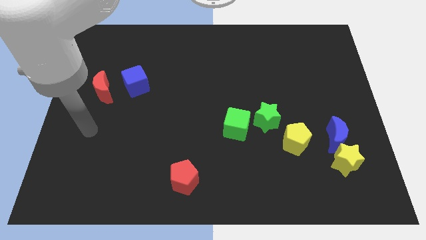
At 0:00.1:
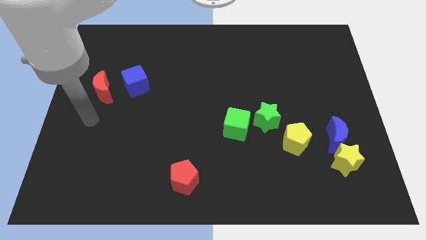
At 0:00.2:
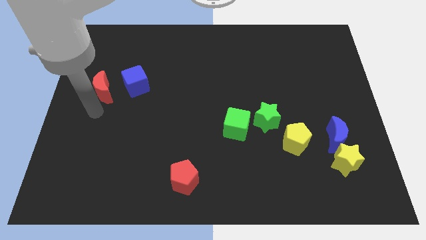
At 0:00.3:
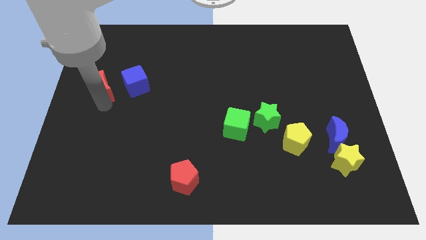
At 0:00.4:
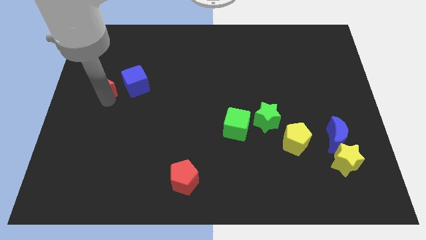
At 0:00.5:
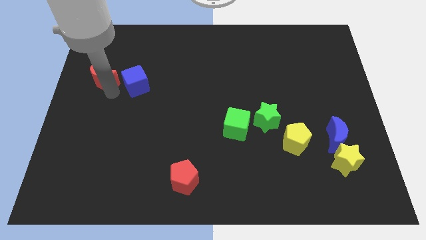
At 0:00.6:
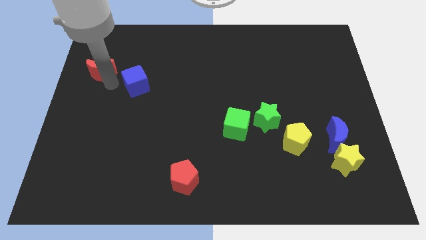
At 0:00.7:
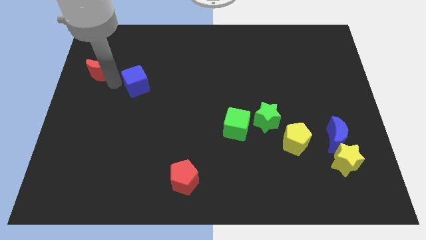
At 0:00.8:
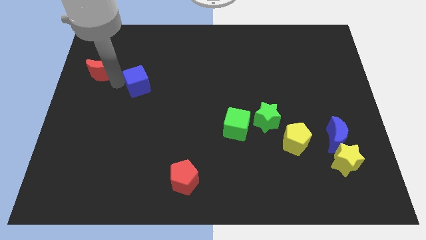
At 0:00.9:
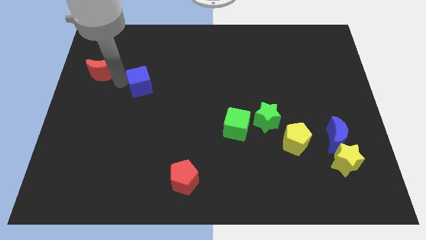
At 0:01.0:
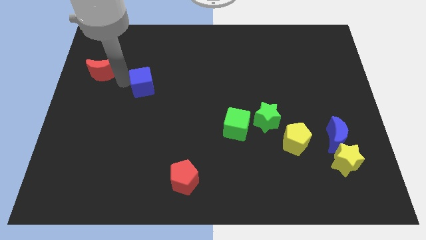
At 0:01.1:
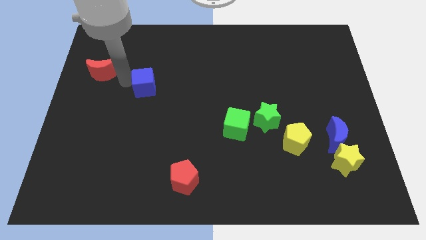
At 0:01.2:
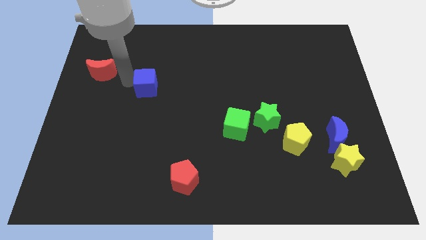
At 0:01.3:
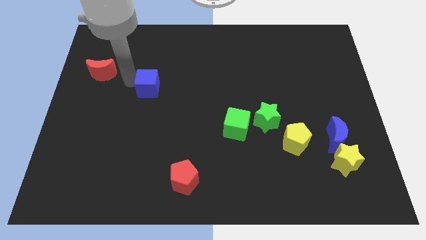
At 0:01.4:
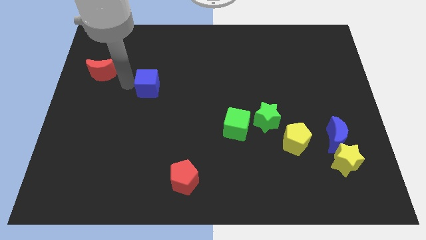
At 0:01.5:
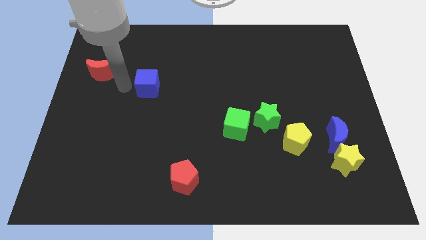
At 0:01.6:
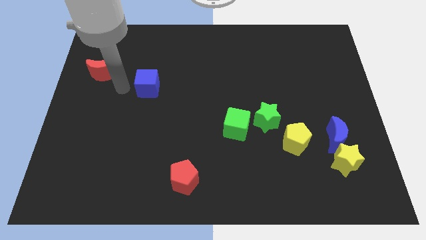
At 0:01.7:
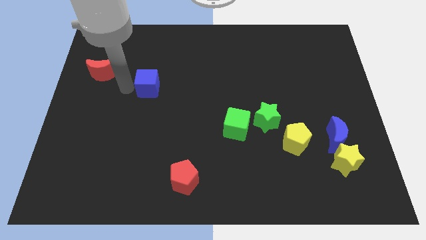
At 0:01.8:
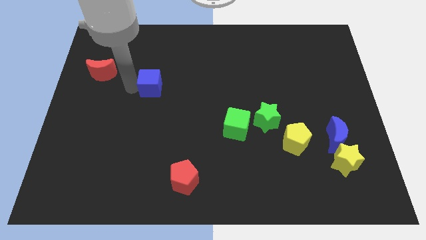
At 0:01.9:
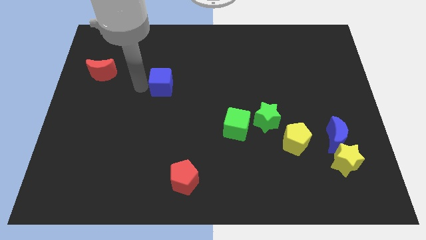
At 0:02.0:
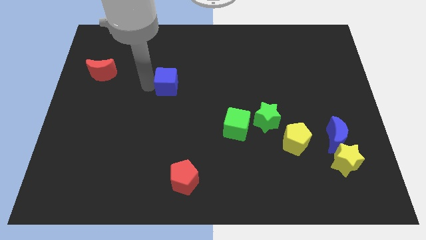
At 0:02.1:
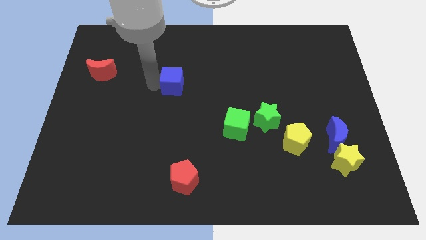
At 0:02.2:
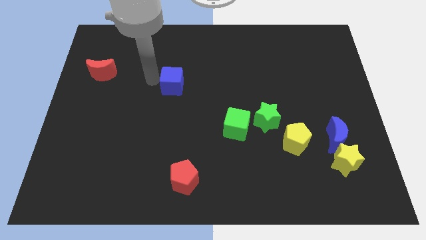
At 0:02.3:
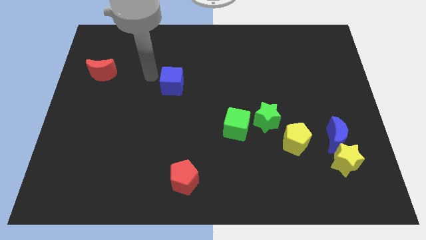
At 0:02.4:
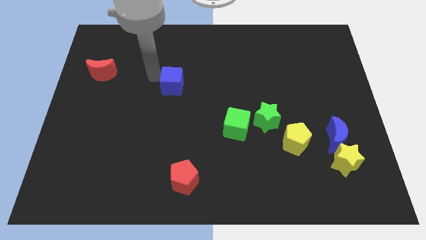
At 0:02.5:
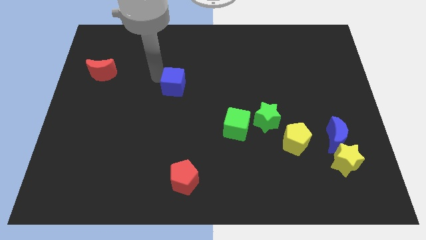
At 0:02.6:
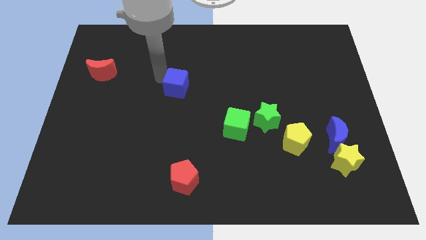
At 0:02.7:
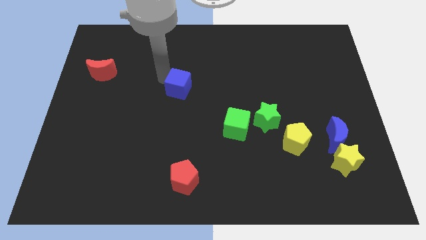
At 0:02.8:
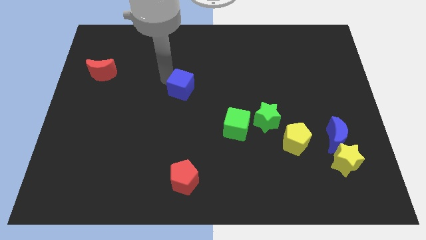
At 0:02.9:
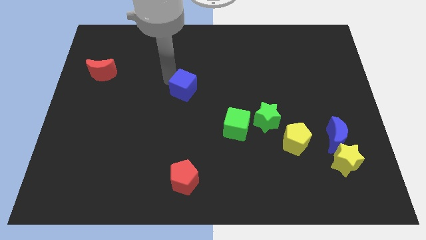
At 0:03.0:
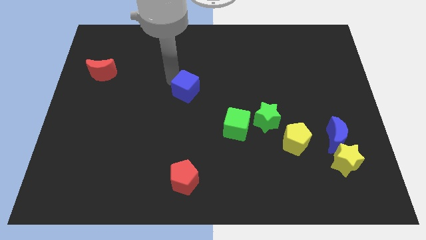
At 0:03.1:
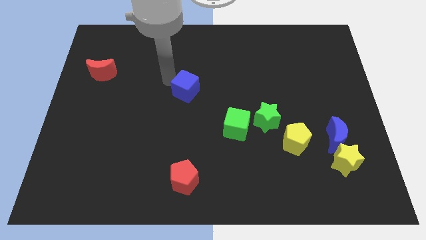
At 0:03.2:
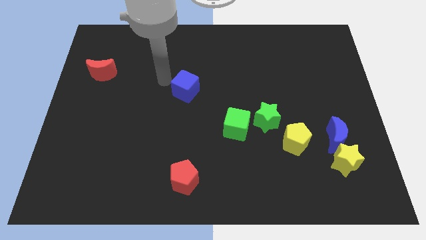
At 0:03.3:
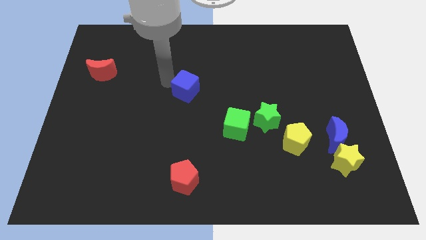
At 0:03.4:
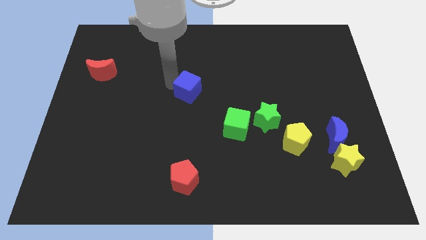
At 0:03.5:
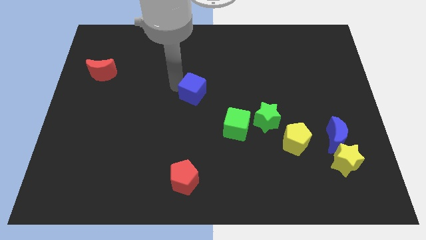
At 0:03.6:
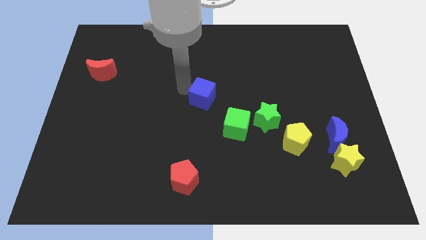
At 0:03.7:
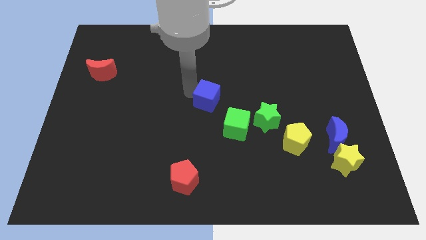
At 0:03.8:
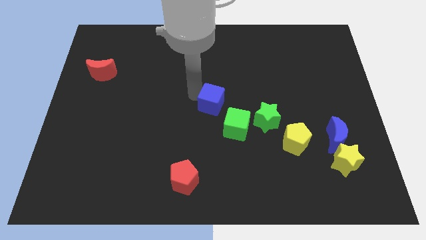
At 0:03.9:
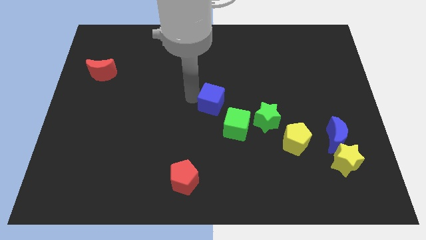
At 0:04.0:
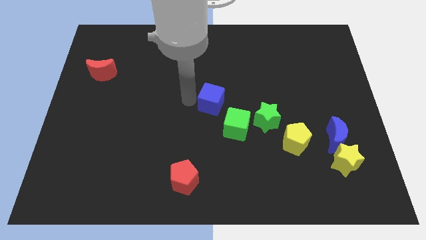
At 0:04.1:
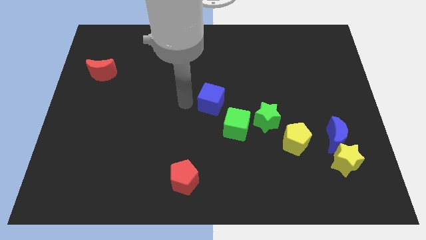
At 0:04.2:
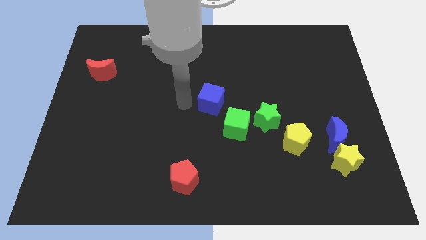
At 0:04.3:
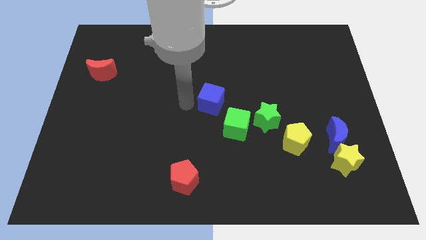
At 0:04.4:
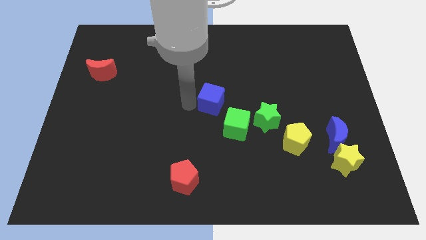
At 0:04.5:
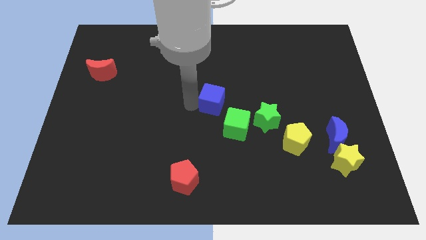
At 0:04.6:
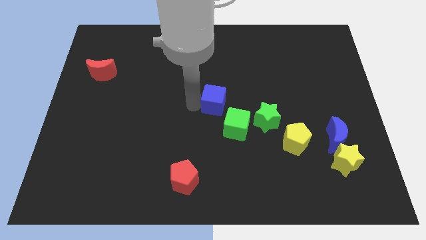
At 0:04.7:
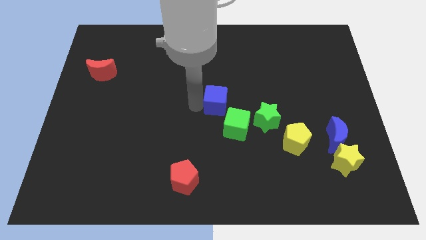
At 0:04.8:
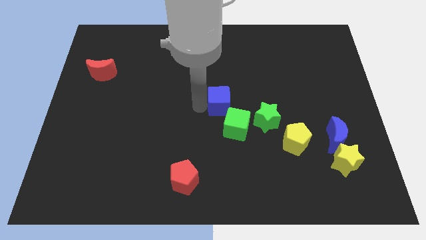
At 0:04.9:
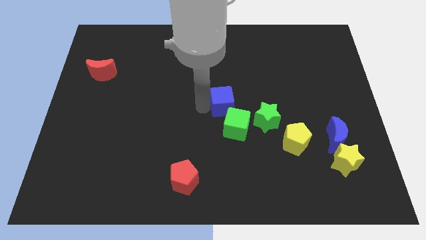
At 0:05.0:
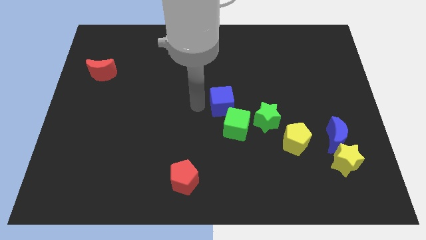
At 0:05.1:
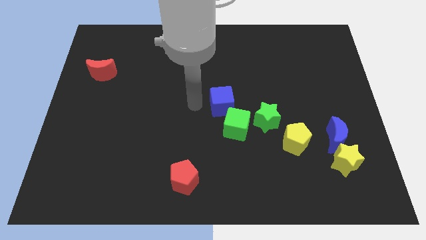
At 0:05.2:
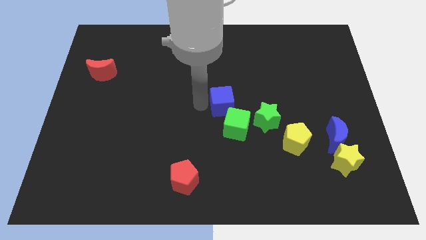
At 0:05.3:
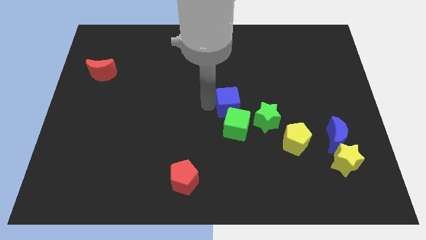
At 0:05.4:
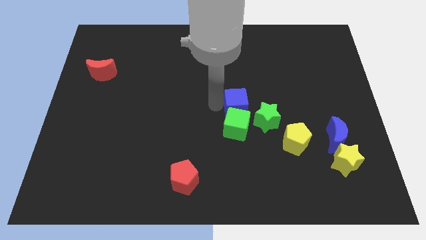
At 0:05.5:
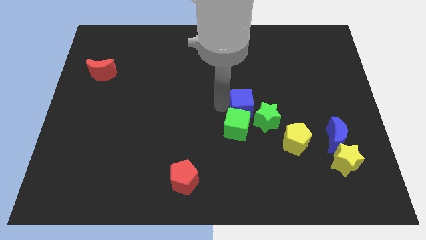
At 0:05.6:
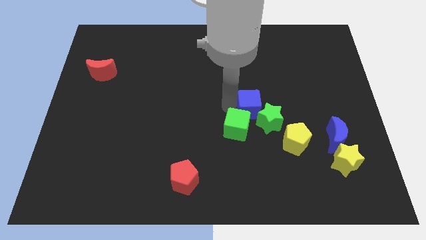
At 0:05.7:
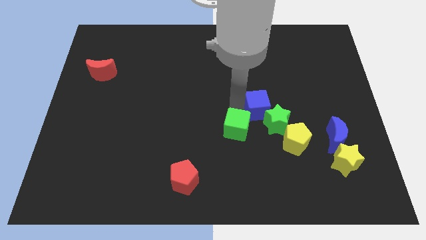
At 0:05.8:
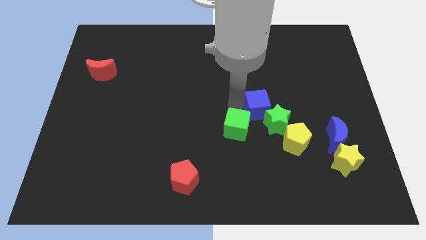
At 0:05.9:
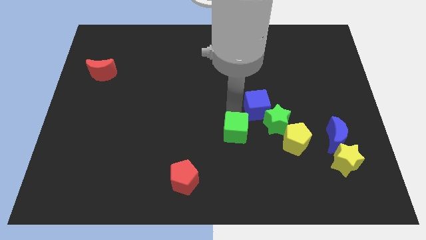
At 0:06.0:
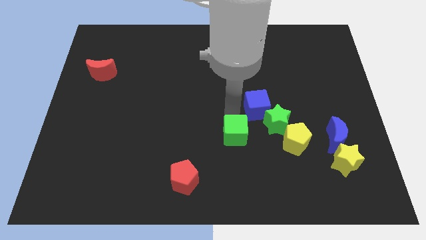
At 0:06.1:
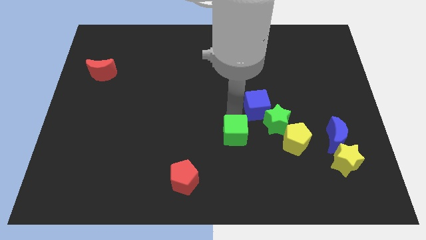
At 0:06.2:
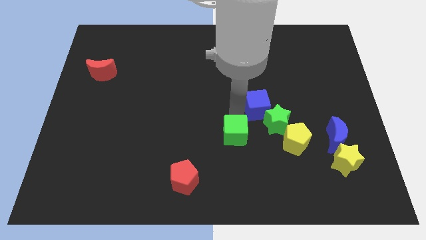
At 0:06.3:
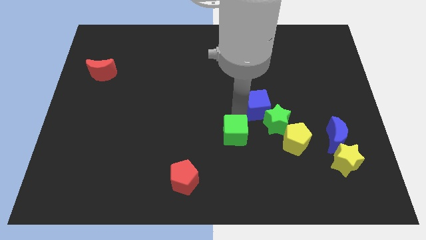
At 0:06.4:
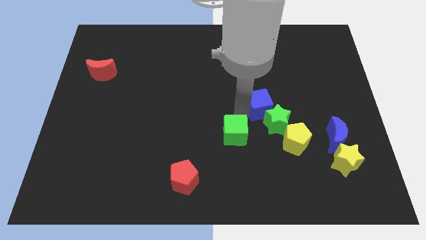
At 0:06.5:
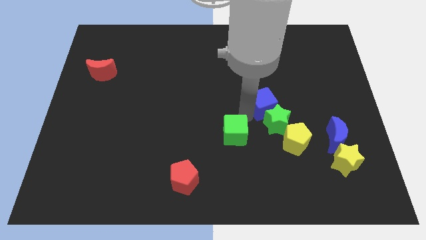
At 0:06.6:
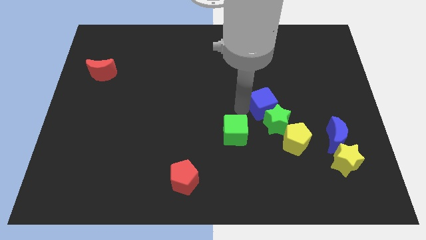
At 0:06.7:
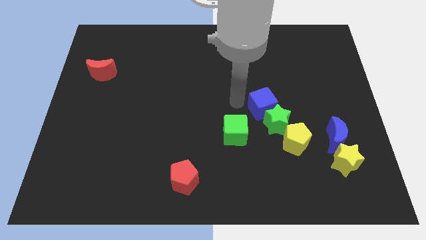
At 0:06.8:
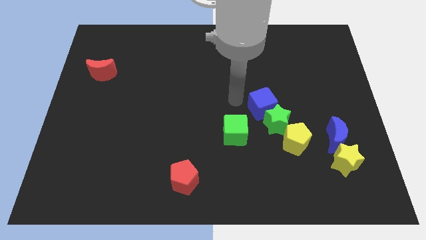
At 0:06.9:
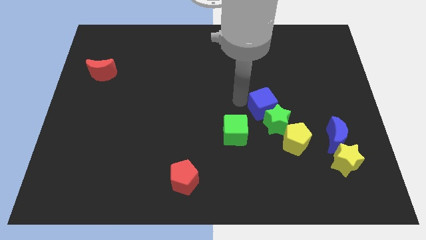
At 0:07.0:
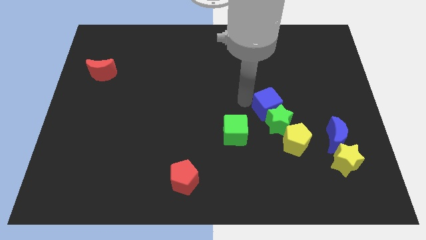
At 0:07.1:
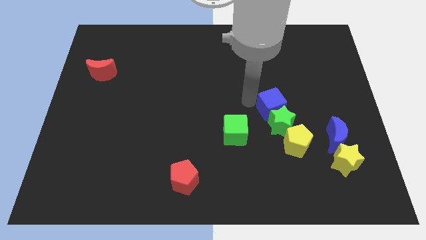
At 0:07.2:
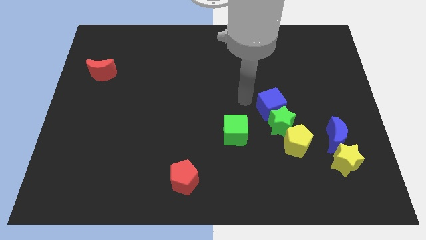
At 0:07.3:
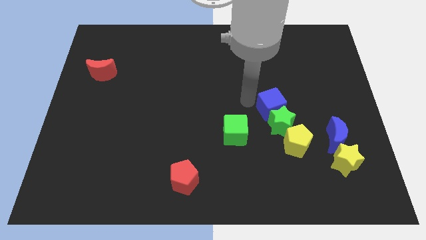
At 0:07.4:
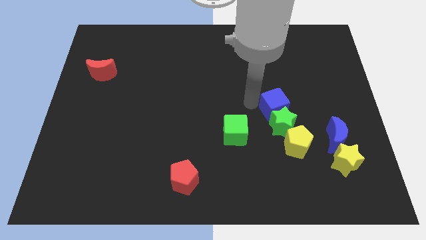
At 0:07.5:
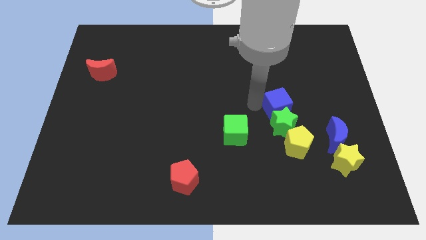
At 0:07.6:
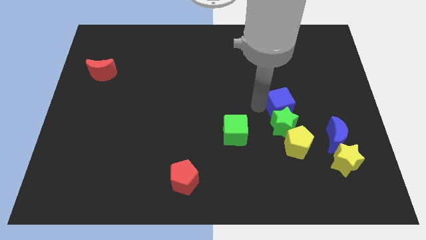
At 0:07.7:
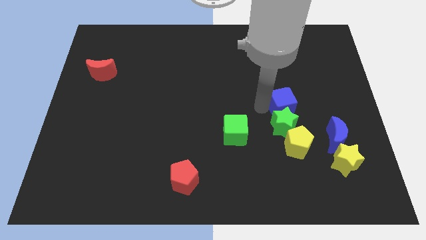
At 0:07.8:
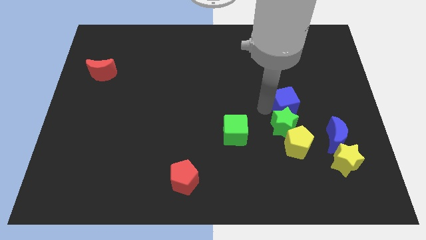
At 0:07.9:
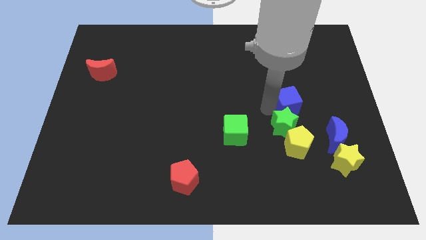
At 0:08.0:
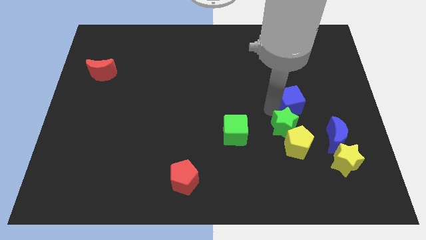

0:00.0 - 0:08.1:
push the blue cube to the top left side of the blue moon

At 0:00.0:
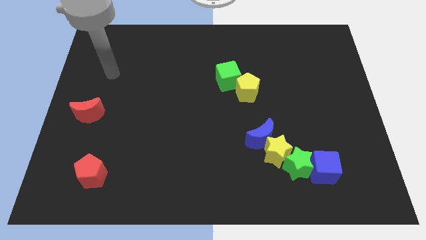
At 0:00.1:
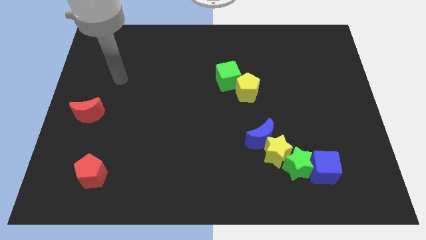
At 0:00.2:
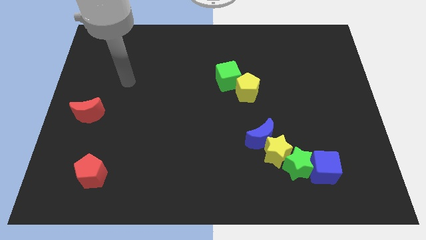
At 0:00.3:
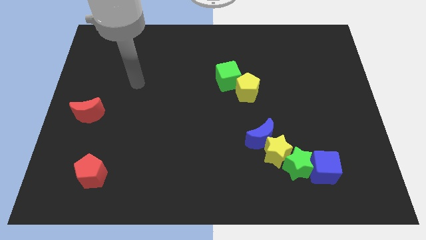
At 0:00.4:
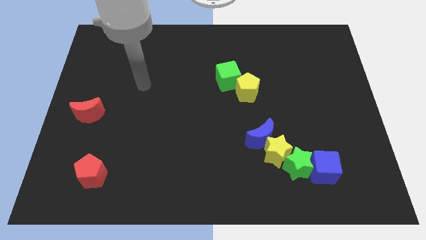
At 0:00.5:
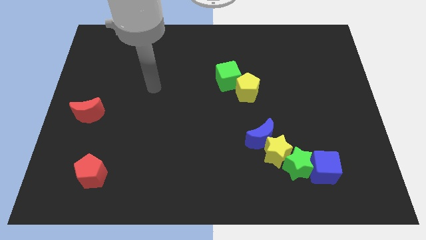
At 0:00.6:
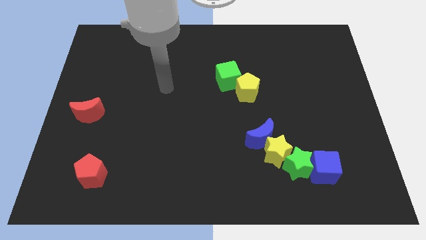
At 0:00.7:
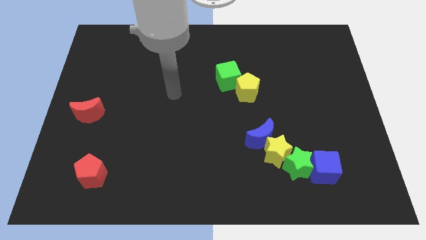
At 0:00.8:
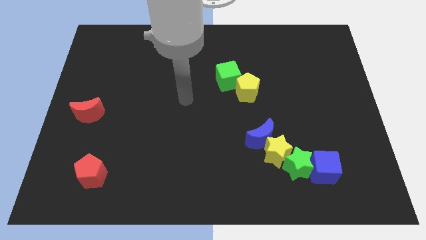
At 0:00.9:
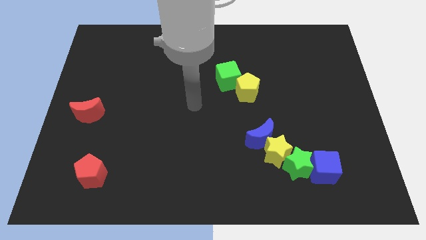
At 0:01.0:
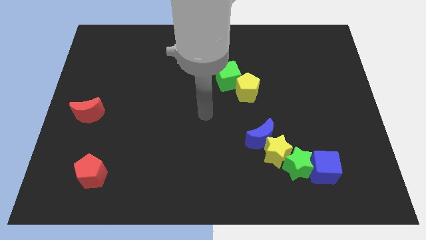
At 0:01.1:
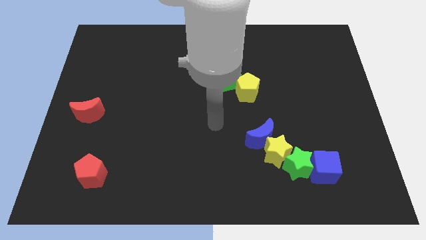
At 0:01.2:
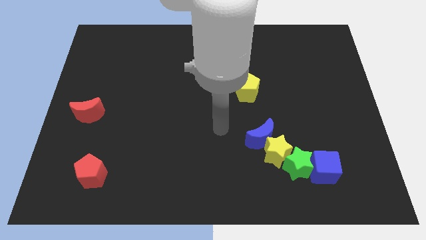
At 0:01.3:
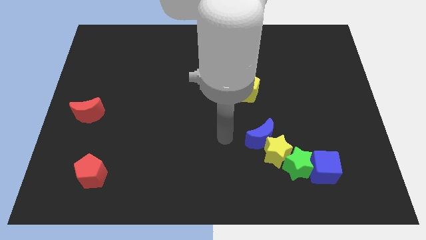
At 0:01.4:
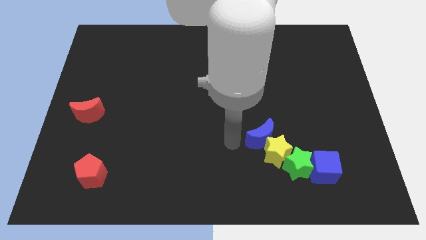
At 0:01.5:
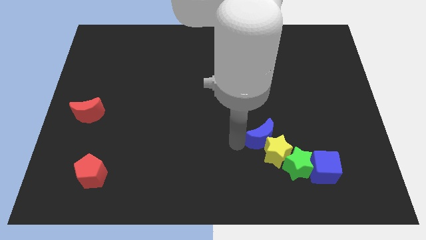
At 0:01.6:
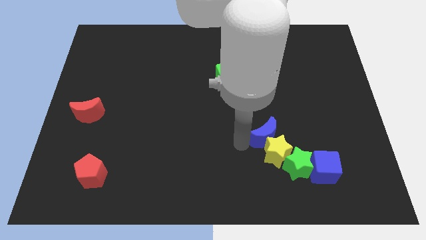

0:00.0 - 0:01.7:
put the blue moon to the top right side of the yellow star
